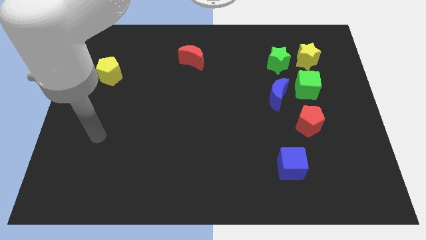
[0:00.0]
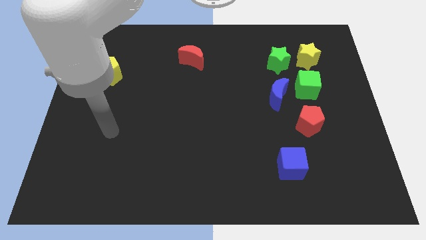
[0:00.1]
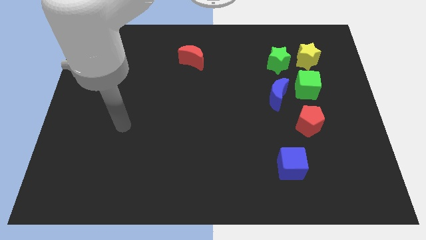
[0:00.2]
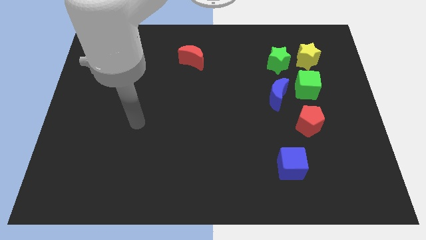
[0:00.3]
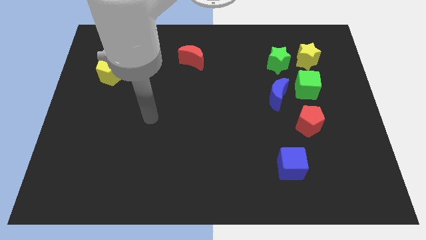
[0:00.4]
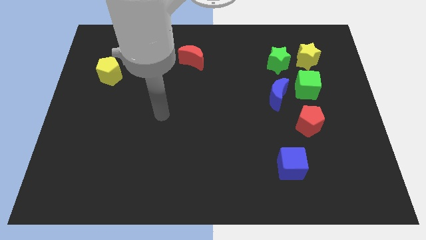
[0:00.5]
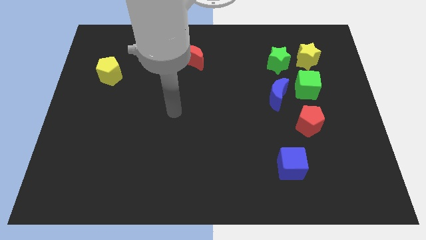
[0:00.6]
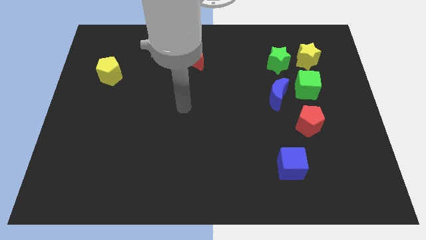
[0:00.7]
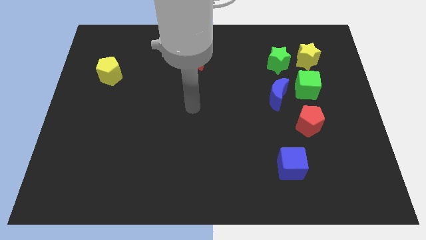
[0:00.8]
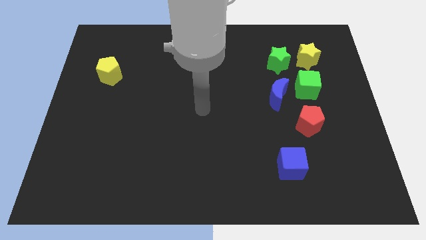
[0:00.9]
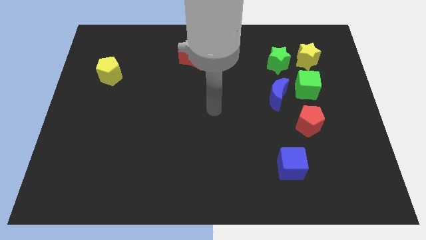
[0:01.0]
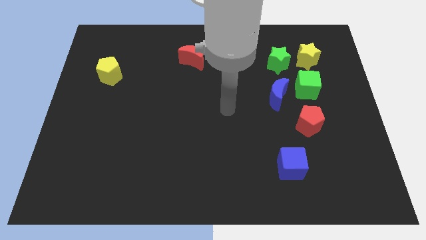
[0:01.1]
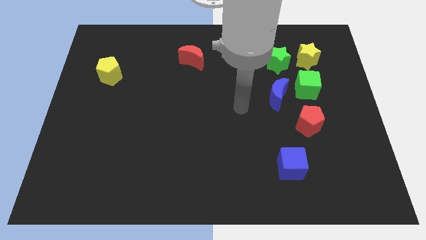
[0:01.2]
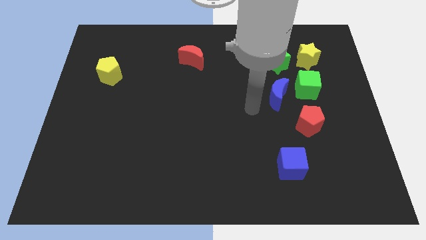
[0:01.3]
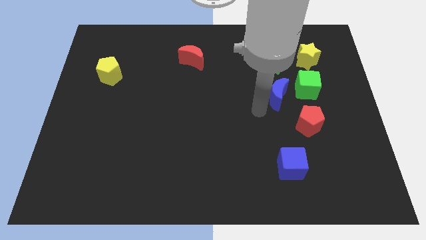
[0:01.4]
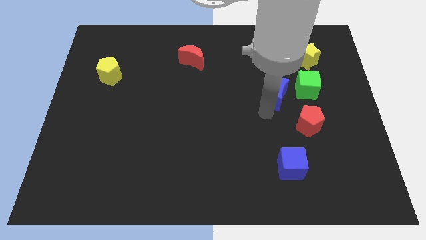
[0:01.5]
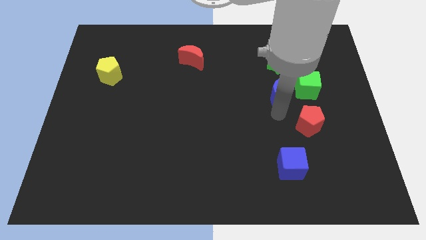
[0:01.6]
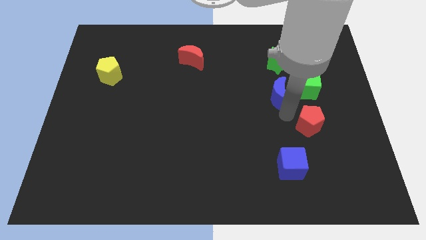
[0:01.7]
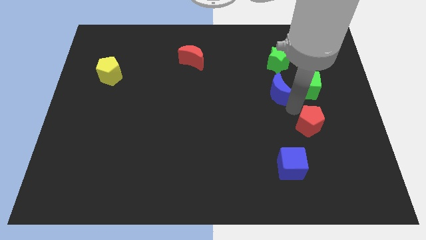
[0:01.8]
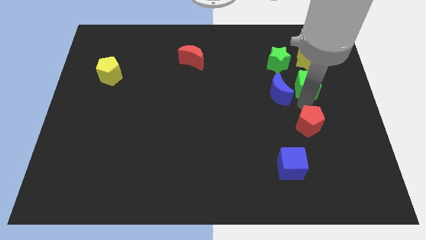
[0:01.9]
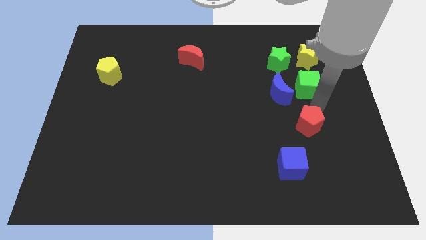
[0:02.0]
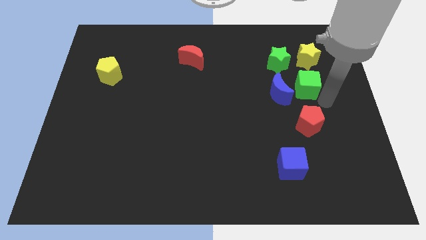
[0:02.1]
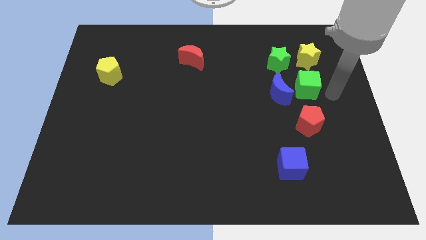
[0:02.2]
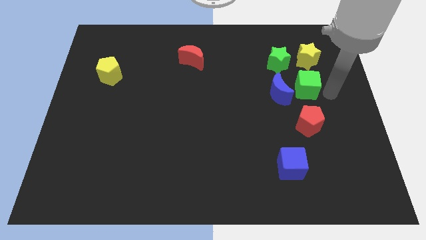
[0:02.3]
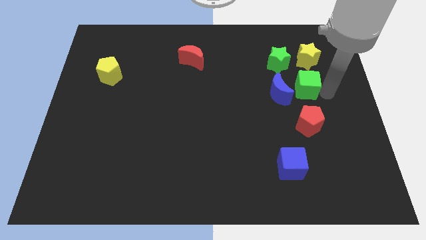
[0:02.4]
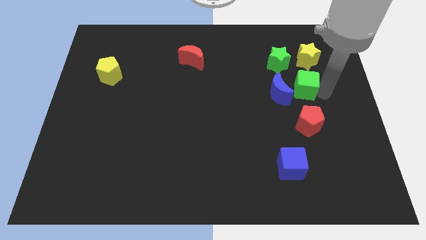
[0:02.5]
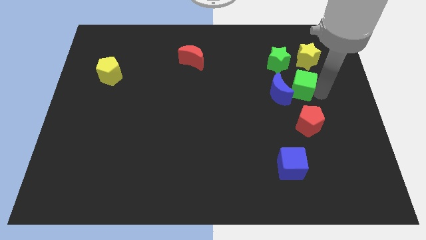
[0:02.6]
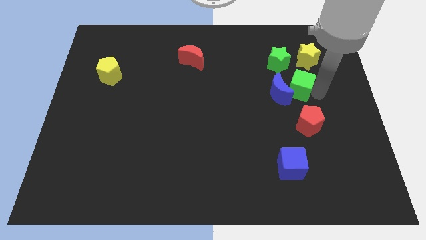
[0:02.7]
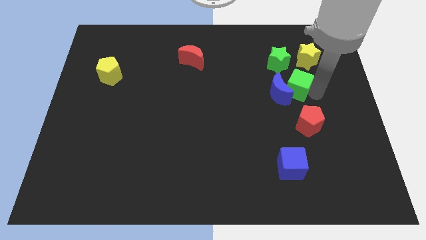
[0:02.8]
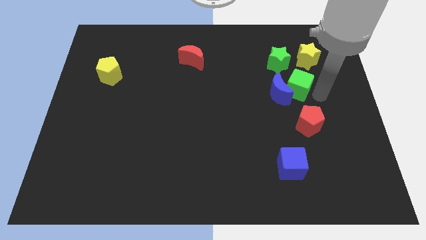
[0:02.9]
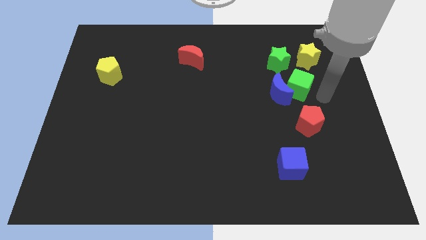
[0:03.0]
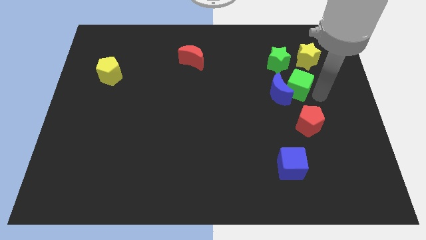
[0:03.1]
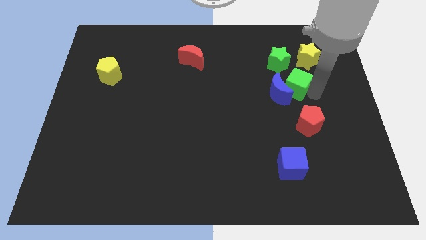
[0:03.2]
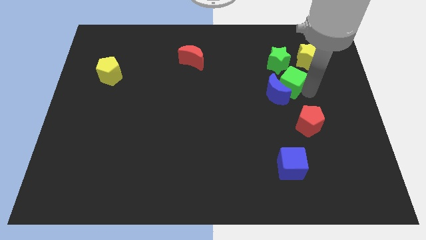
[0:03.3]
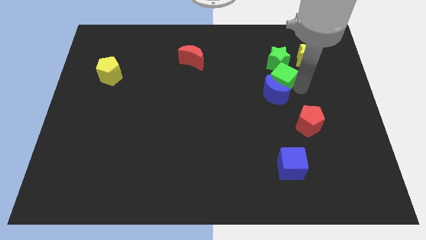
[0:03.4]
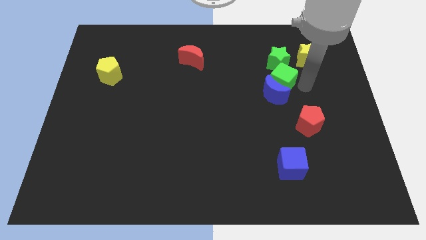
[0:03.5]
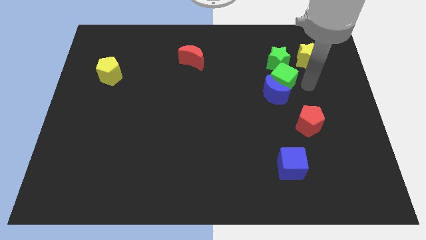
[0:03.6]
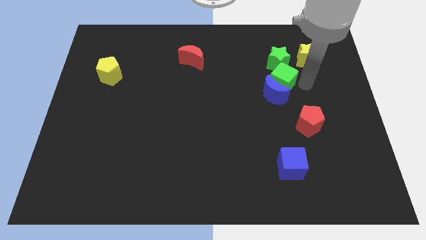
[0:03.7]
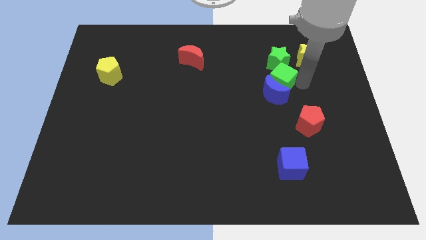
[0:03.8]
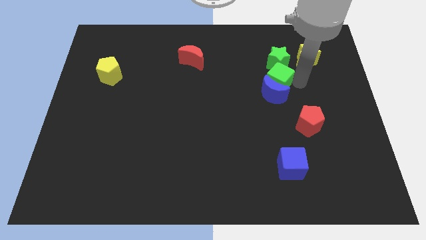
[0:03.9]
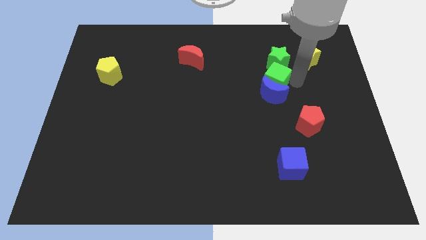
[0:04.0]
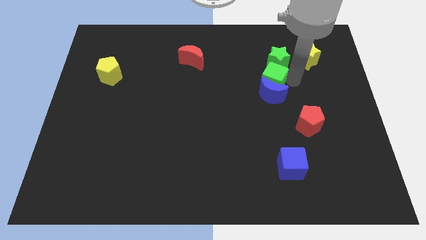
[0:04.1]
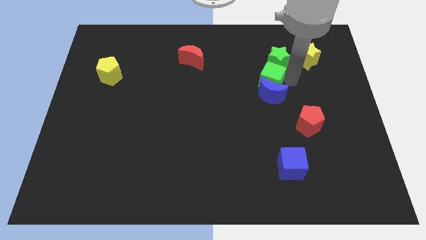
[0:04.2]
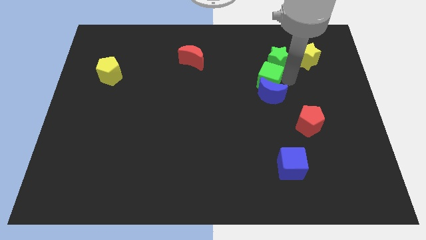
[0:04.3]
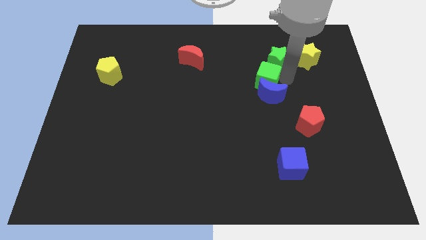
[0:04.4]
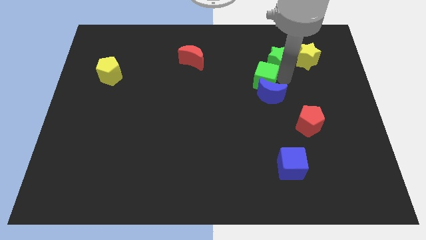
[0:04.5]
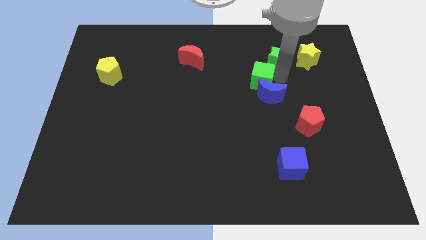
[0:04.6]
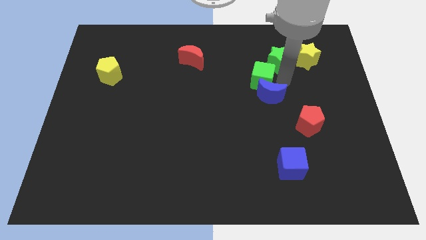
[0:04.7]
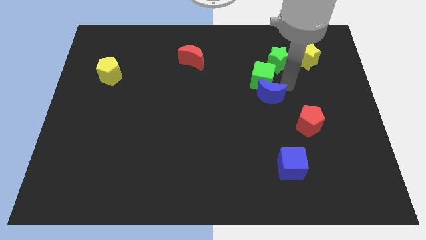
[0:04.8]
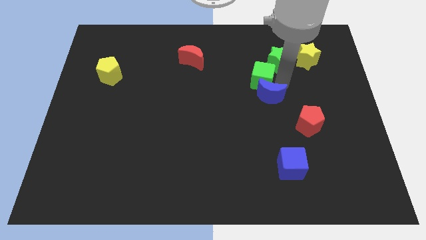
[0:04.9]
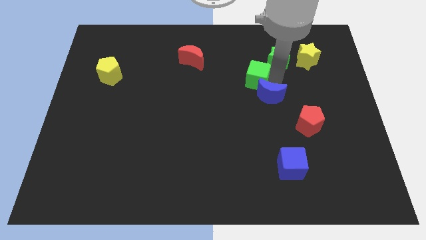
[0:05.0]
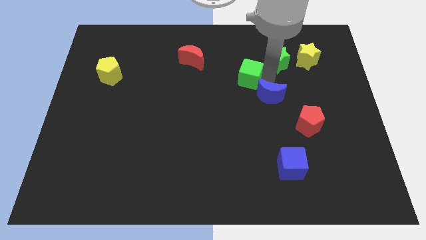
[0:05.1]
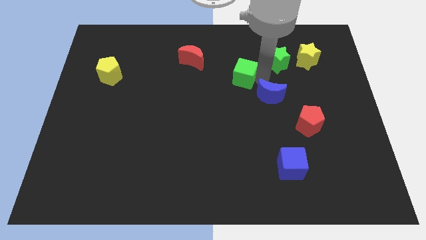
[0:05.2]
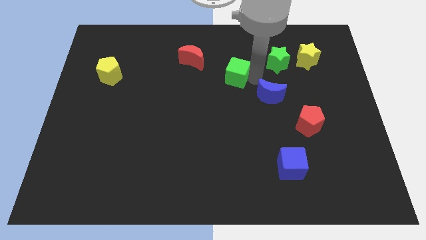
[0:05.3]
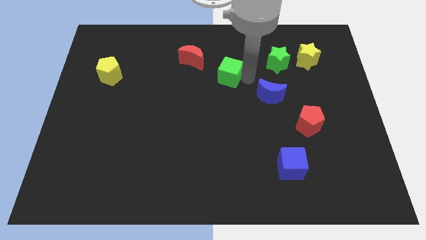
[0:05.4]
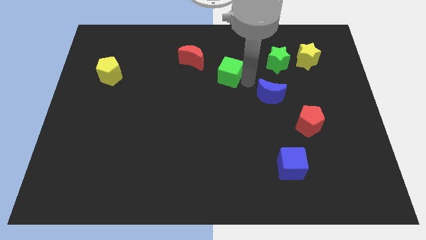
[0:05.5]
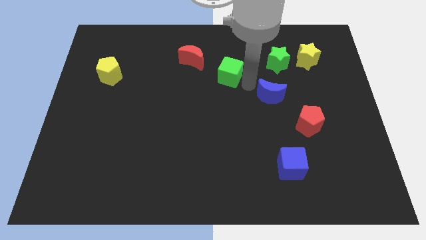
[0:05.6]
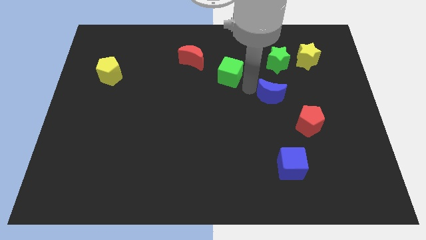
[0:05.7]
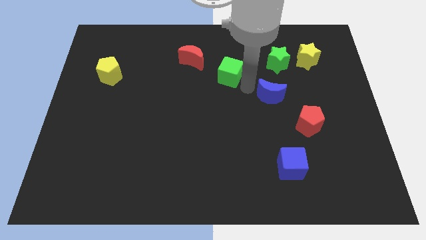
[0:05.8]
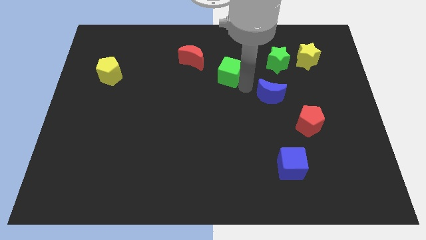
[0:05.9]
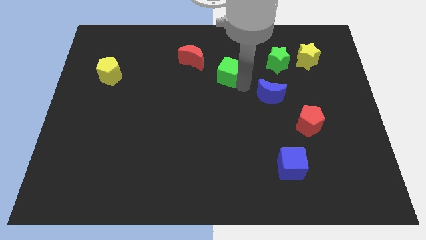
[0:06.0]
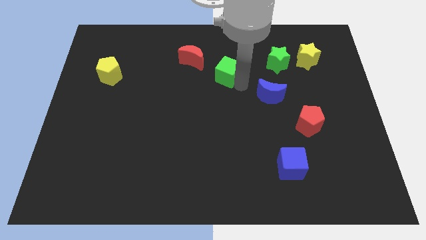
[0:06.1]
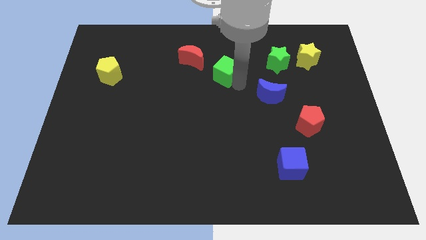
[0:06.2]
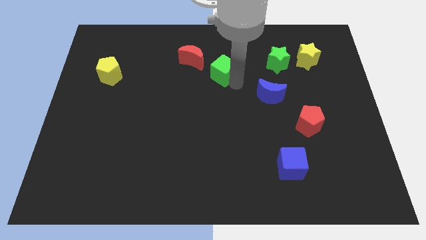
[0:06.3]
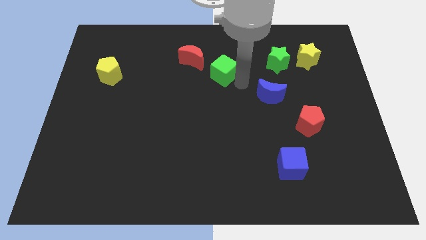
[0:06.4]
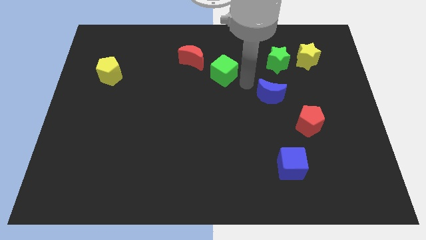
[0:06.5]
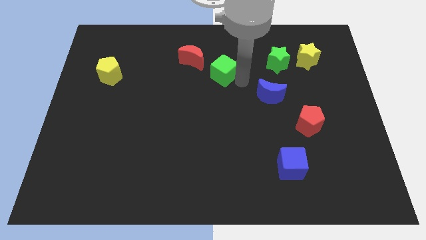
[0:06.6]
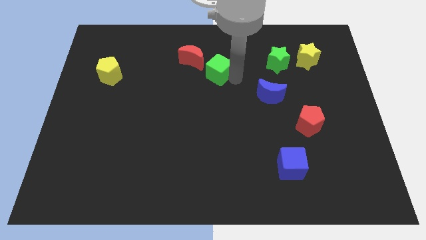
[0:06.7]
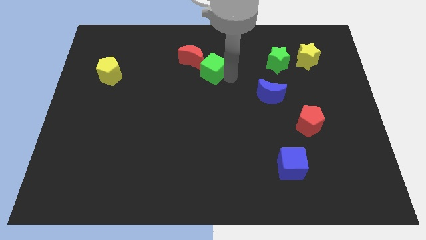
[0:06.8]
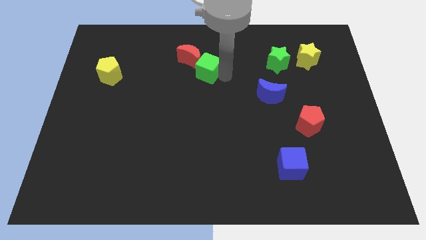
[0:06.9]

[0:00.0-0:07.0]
put the green cube towards the red moon
